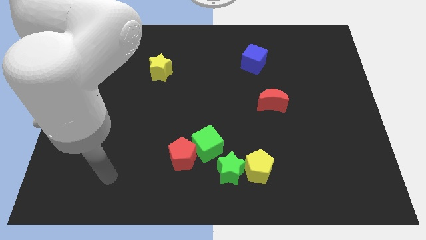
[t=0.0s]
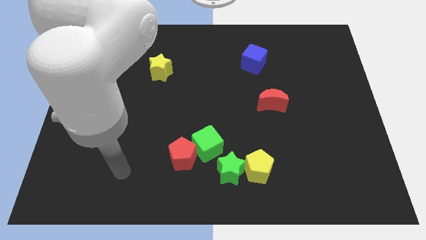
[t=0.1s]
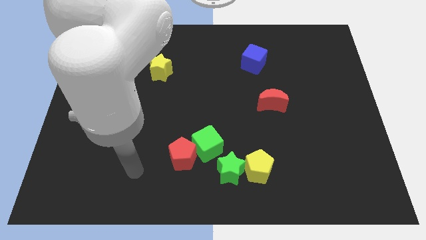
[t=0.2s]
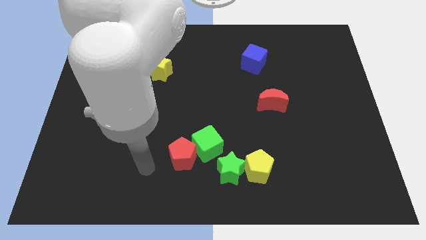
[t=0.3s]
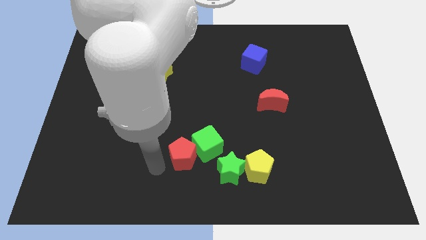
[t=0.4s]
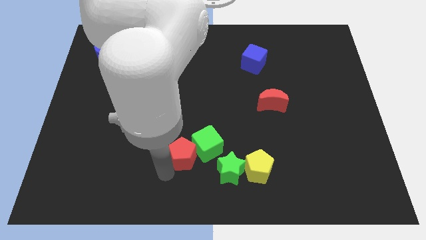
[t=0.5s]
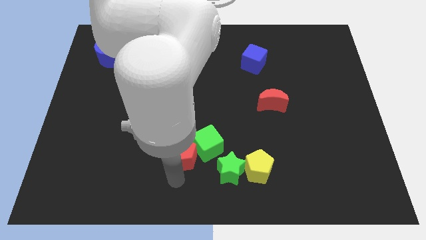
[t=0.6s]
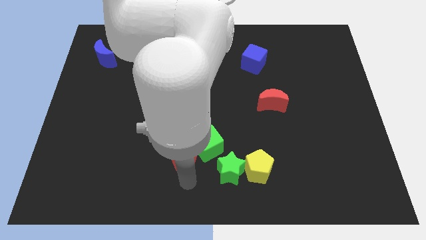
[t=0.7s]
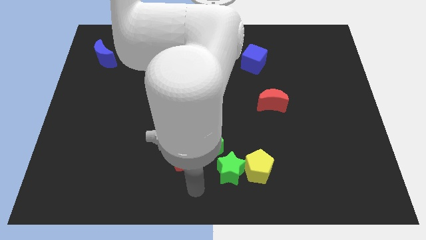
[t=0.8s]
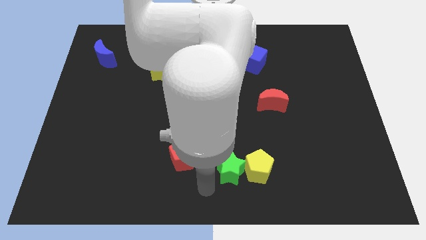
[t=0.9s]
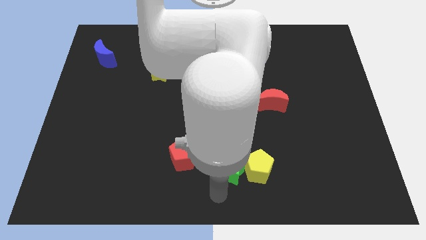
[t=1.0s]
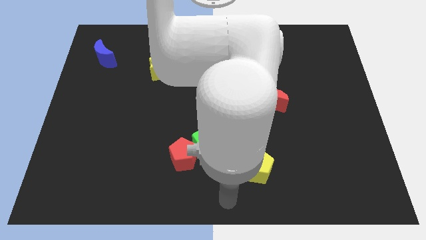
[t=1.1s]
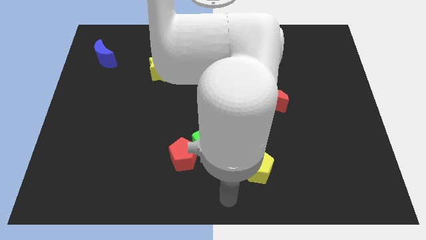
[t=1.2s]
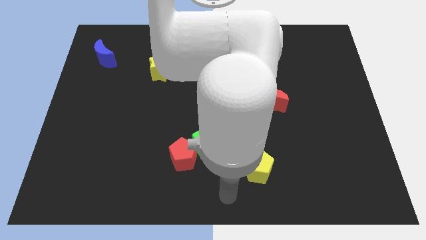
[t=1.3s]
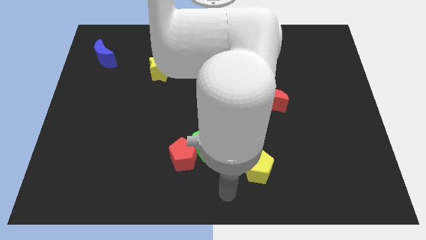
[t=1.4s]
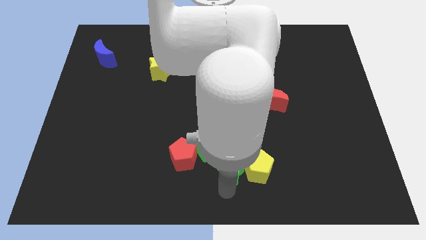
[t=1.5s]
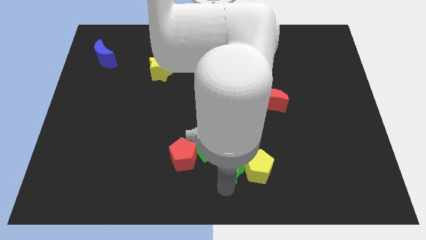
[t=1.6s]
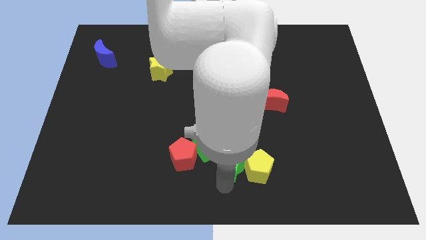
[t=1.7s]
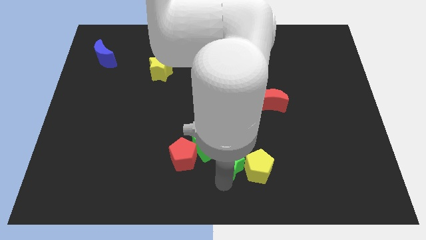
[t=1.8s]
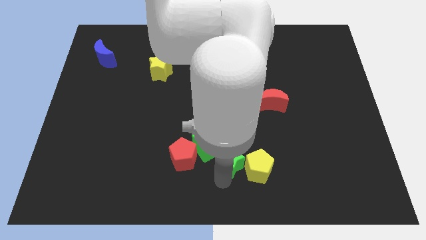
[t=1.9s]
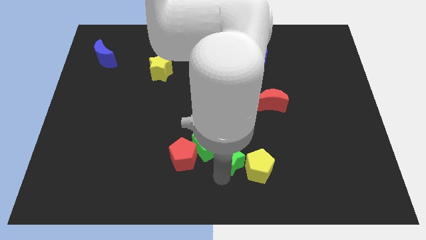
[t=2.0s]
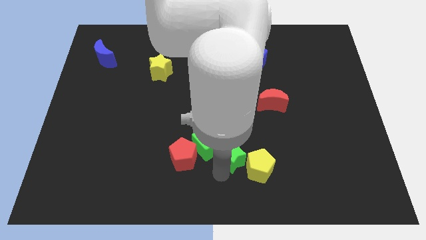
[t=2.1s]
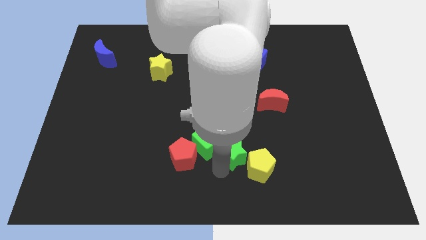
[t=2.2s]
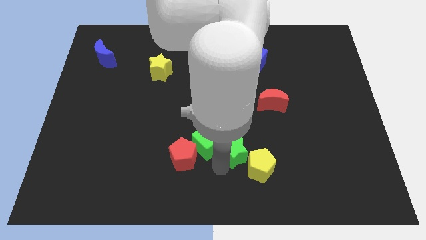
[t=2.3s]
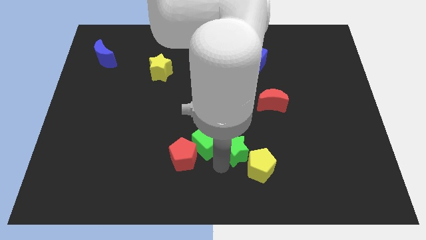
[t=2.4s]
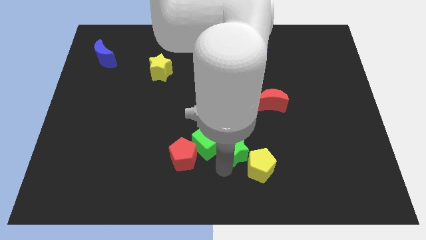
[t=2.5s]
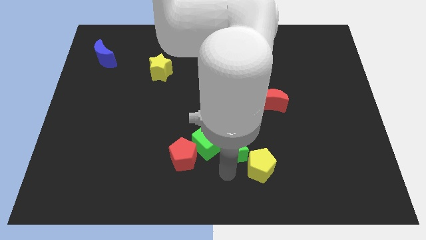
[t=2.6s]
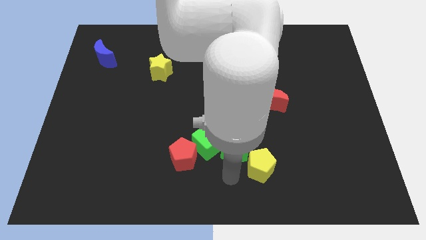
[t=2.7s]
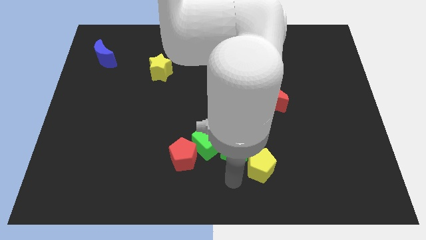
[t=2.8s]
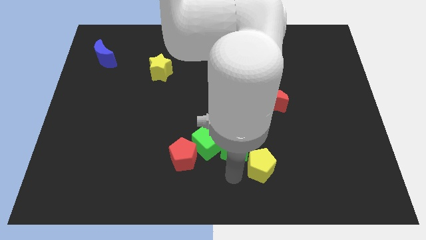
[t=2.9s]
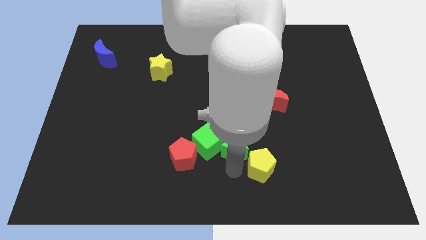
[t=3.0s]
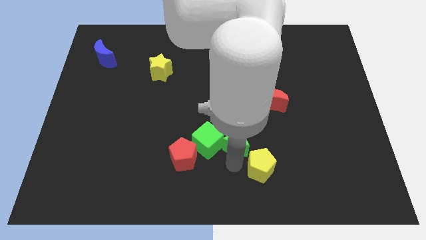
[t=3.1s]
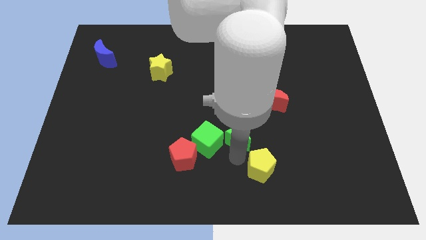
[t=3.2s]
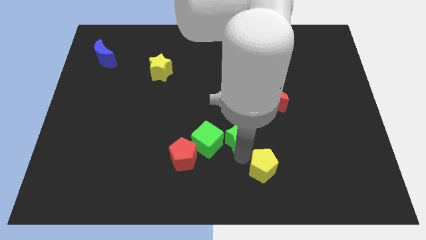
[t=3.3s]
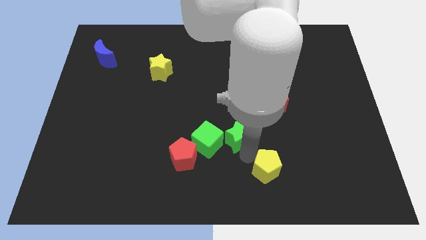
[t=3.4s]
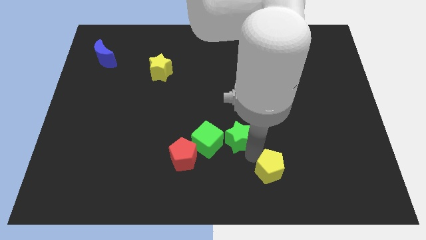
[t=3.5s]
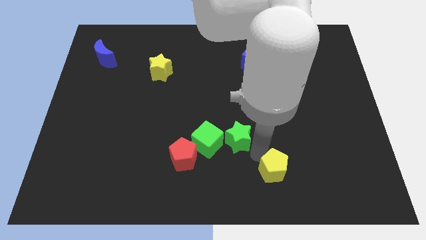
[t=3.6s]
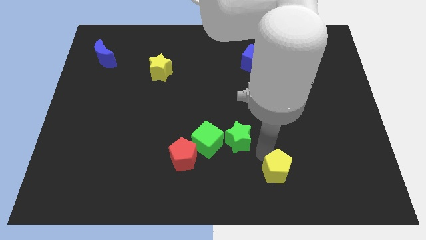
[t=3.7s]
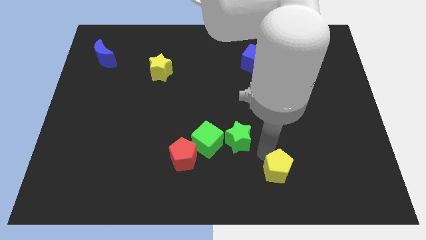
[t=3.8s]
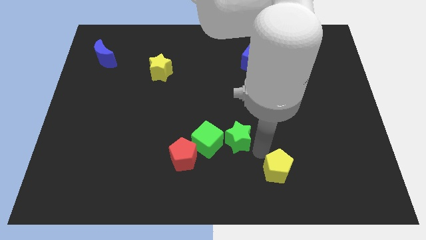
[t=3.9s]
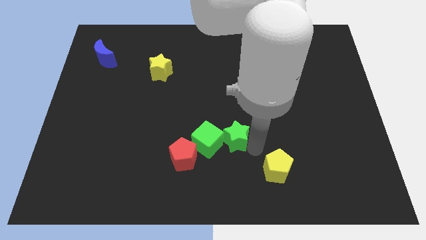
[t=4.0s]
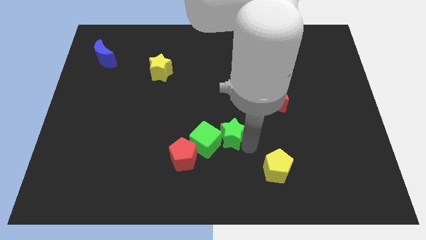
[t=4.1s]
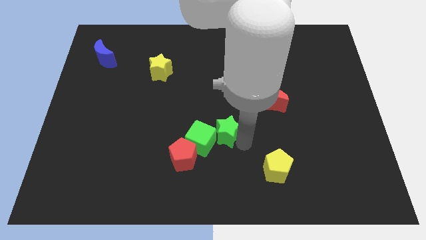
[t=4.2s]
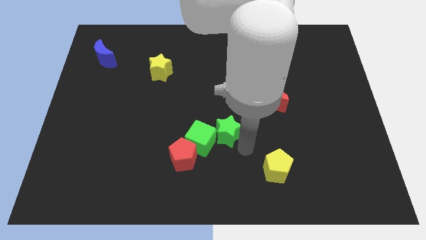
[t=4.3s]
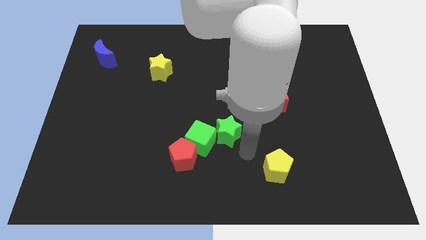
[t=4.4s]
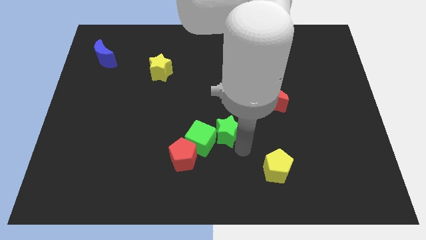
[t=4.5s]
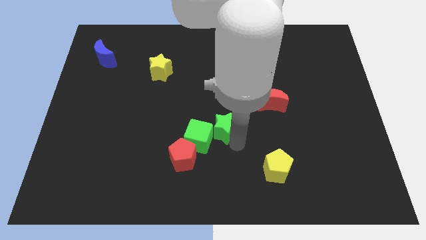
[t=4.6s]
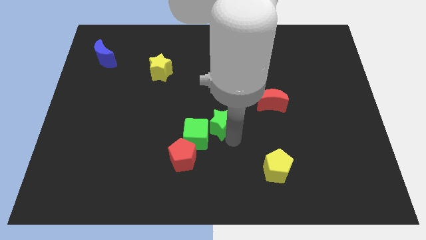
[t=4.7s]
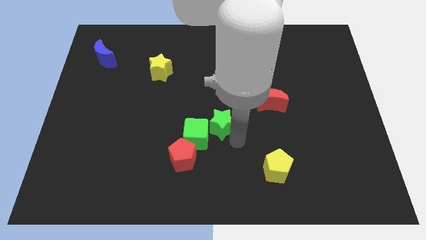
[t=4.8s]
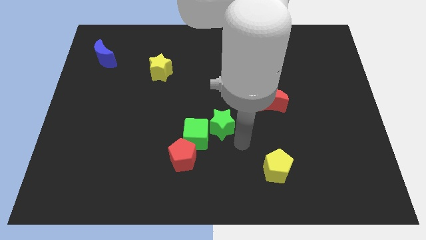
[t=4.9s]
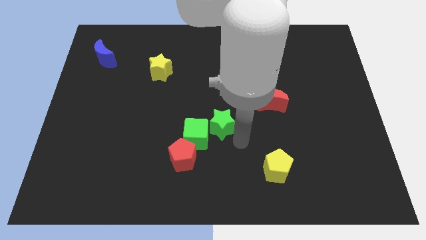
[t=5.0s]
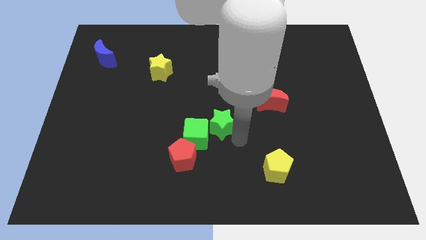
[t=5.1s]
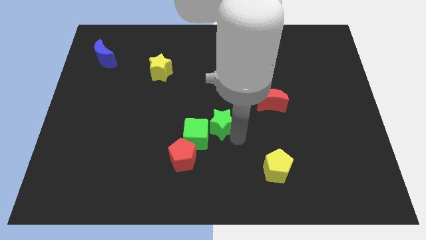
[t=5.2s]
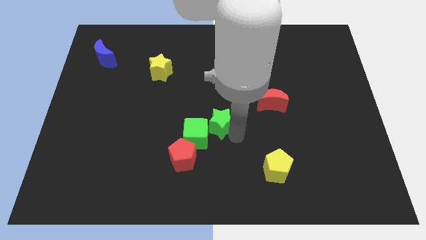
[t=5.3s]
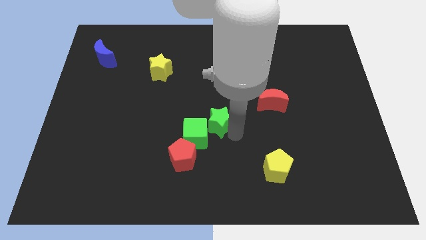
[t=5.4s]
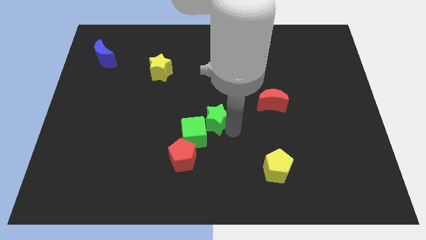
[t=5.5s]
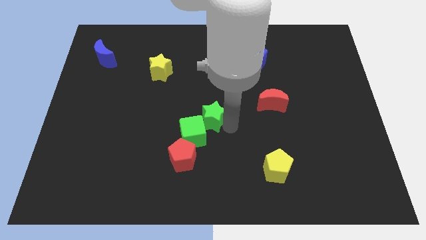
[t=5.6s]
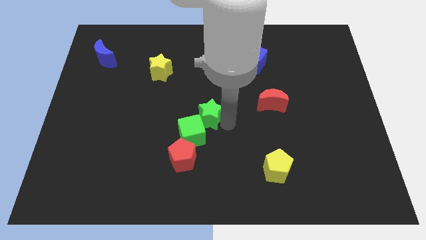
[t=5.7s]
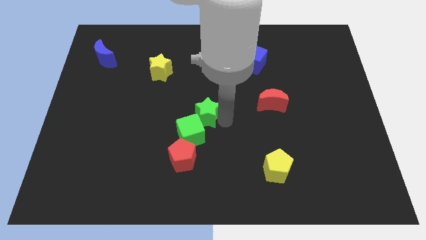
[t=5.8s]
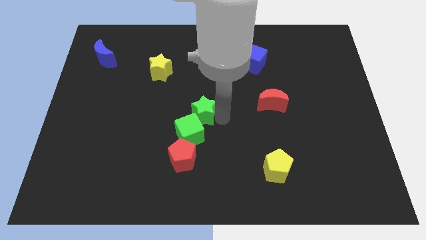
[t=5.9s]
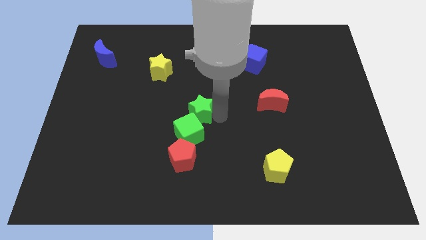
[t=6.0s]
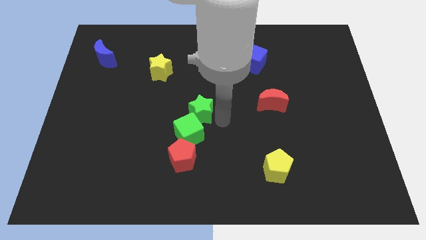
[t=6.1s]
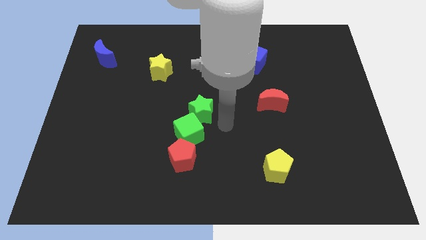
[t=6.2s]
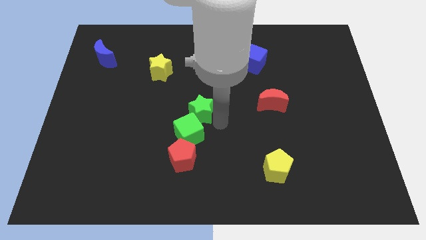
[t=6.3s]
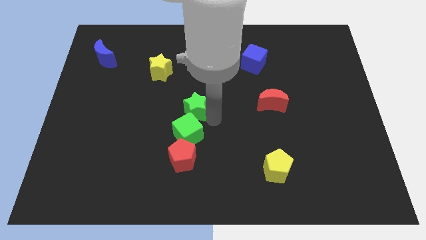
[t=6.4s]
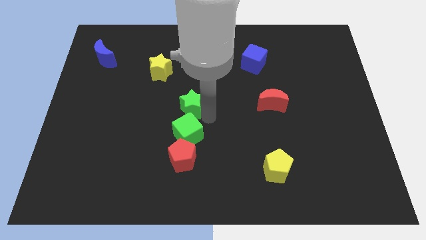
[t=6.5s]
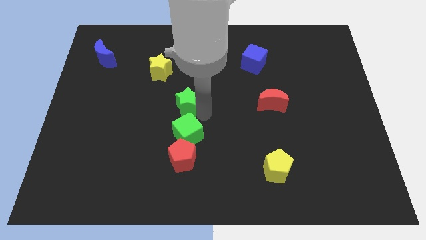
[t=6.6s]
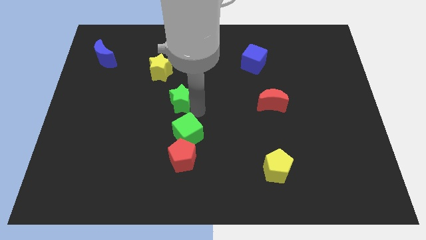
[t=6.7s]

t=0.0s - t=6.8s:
slide the green star diagonally upwards and to the left

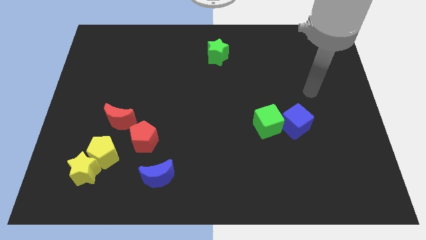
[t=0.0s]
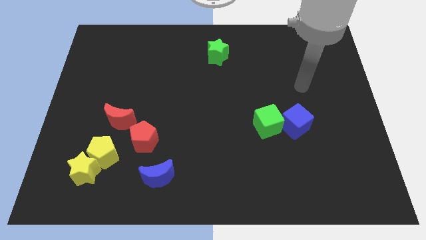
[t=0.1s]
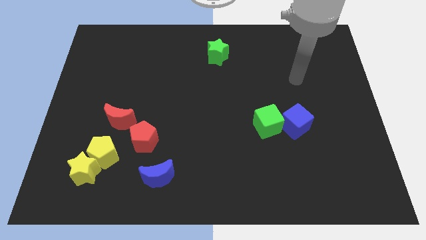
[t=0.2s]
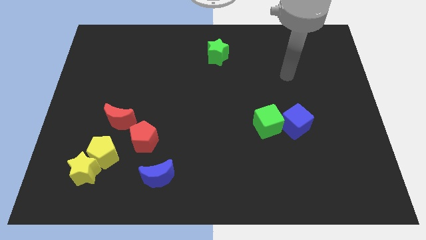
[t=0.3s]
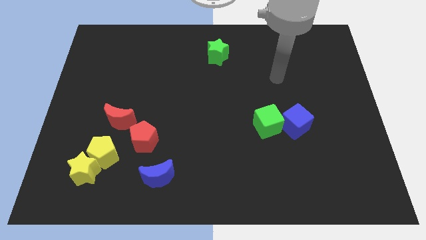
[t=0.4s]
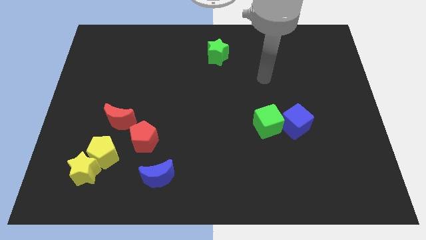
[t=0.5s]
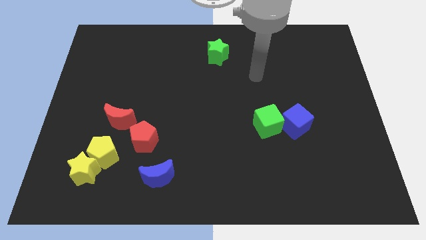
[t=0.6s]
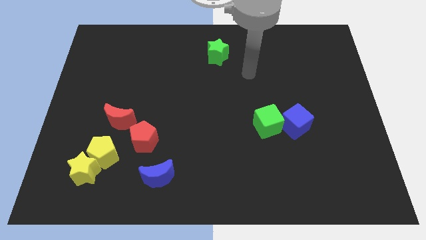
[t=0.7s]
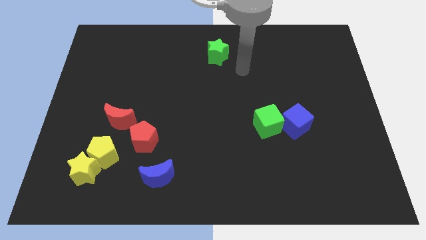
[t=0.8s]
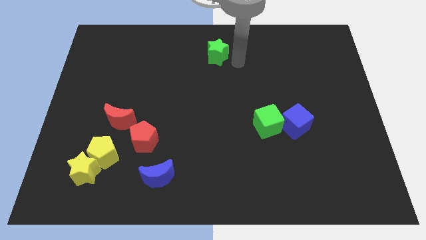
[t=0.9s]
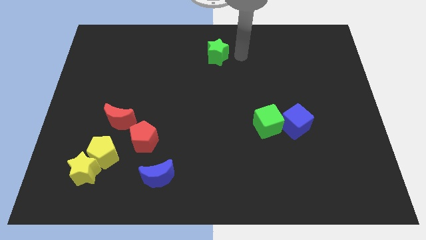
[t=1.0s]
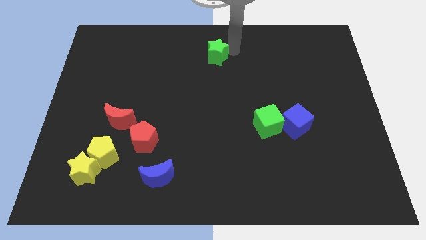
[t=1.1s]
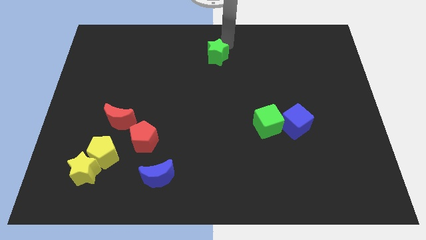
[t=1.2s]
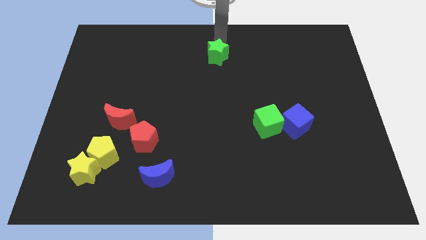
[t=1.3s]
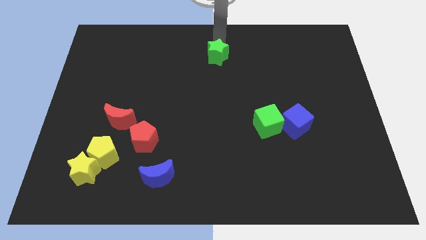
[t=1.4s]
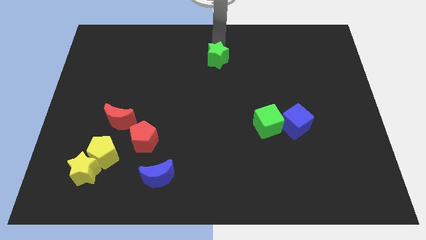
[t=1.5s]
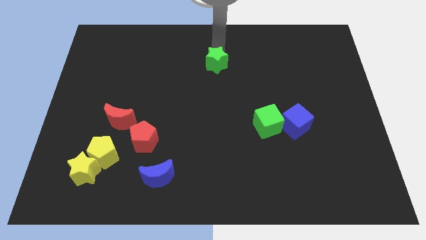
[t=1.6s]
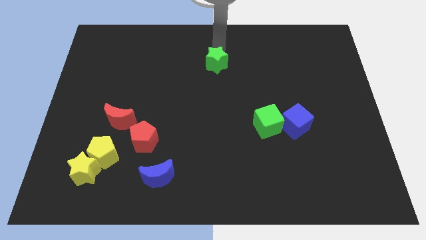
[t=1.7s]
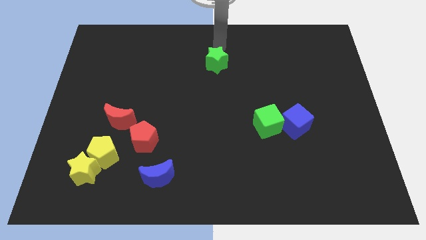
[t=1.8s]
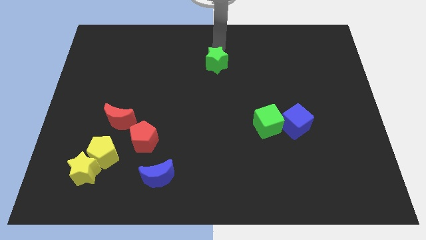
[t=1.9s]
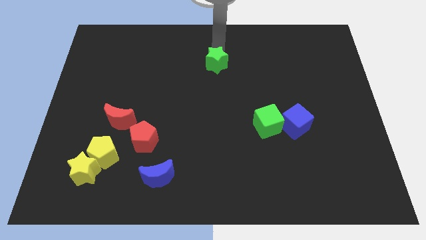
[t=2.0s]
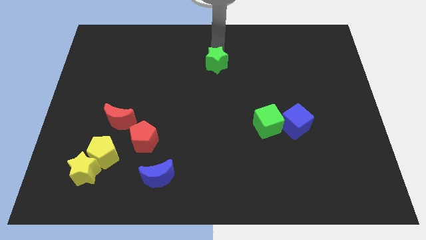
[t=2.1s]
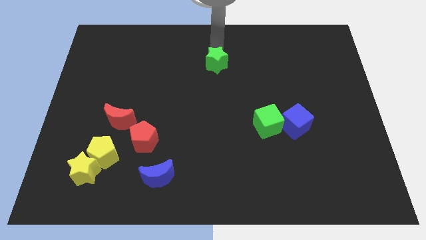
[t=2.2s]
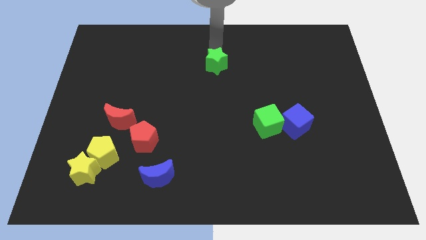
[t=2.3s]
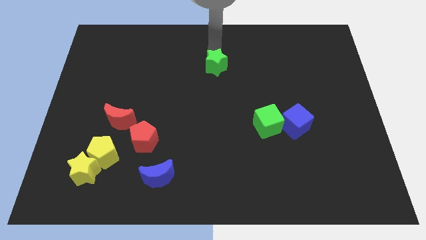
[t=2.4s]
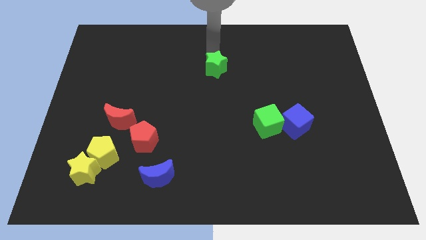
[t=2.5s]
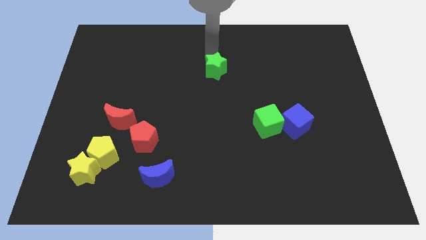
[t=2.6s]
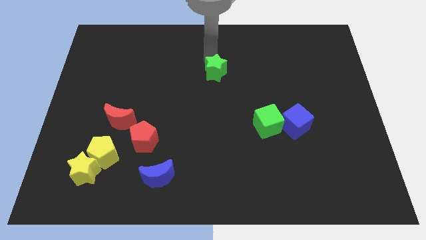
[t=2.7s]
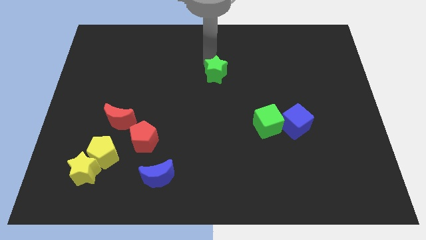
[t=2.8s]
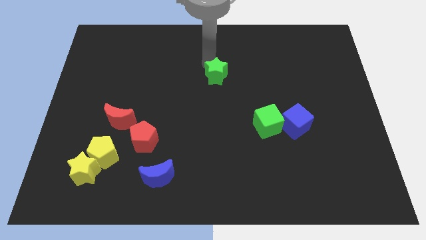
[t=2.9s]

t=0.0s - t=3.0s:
slightly push the green star down
